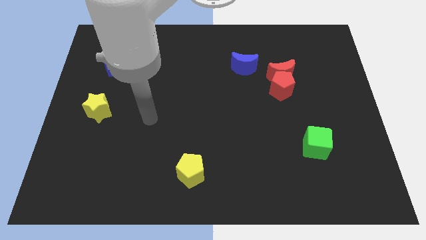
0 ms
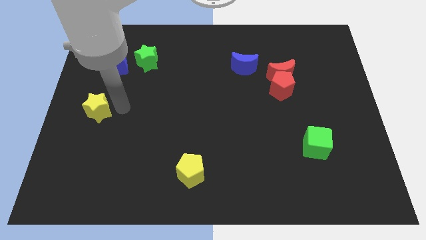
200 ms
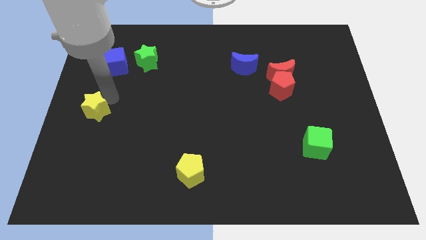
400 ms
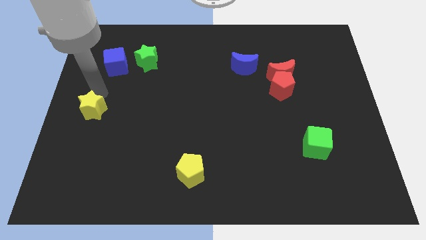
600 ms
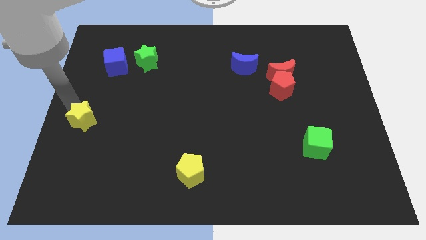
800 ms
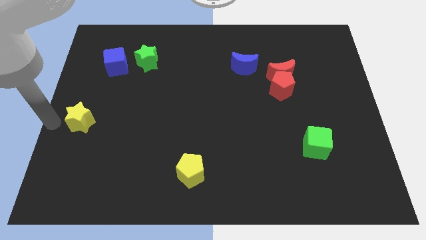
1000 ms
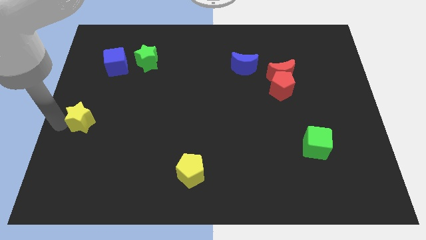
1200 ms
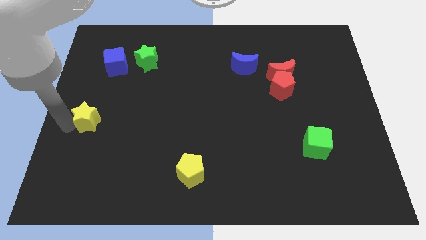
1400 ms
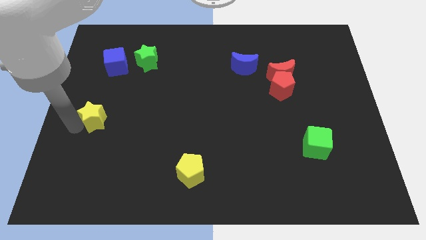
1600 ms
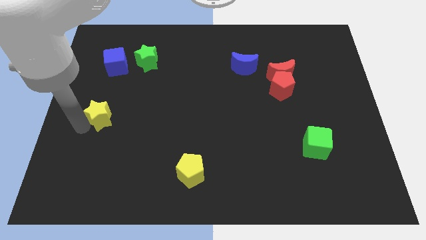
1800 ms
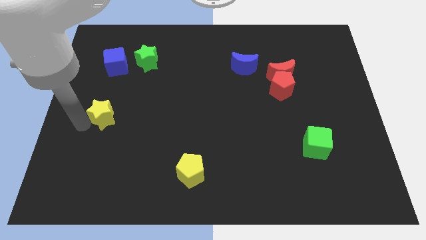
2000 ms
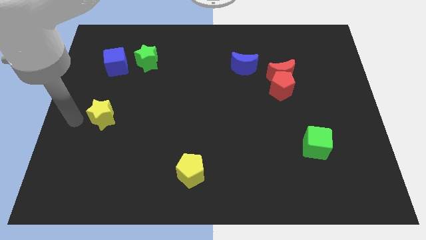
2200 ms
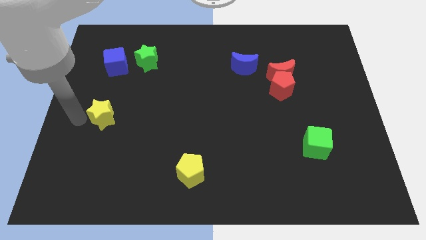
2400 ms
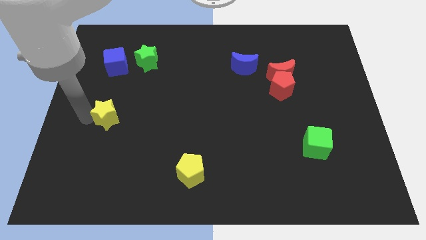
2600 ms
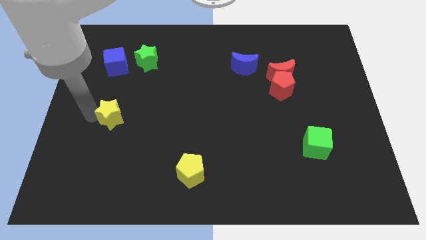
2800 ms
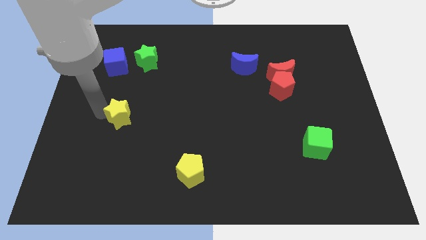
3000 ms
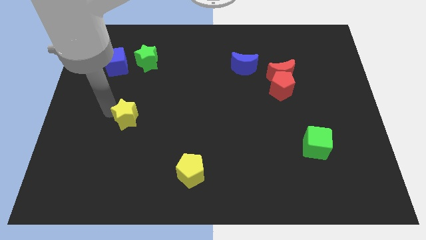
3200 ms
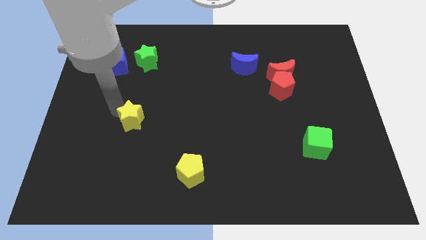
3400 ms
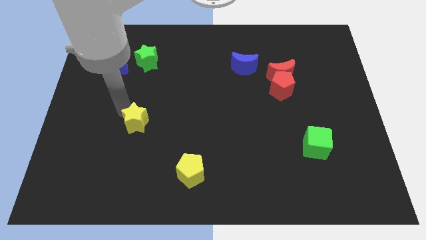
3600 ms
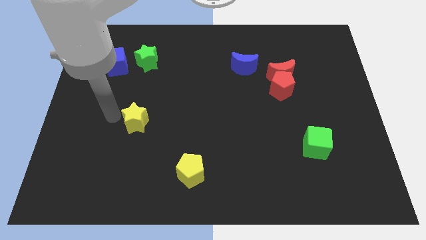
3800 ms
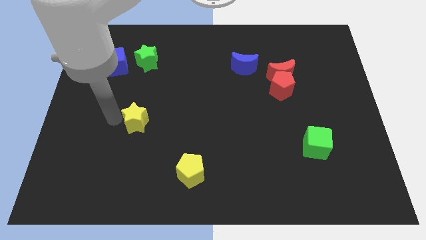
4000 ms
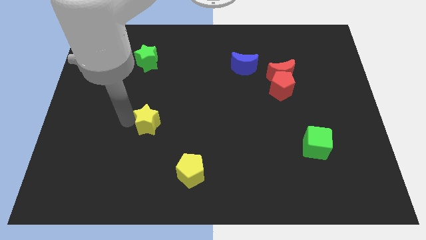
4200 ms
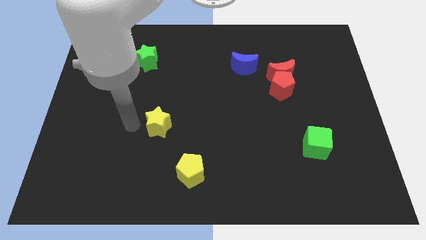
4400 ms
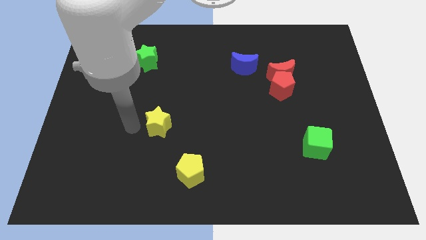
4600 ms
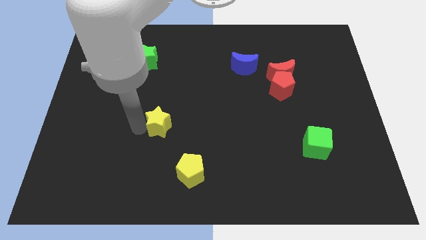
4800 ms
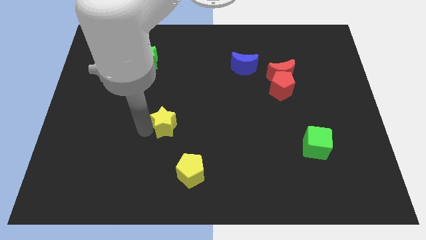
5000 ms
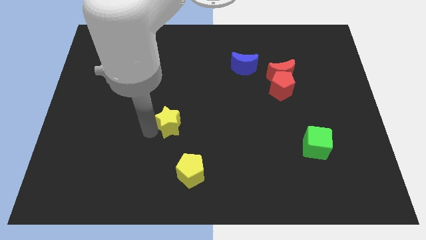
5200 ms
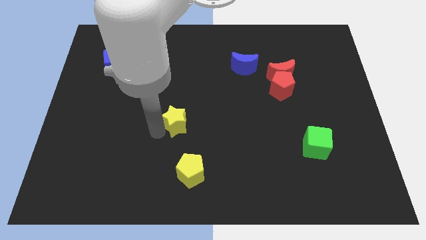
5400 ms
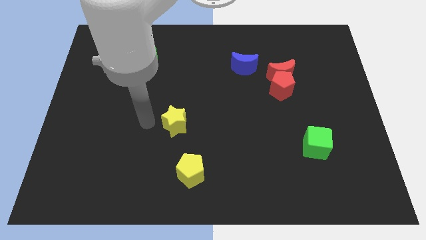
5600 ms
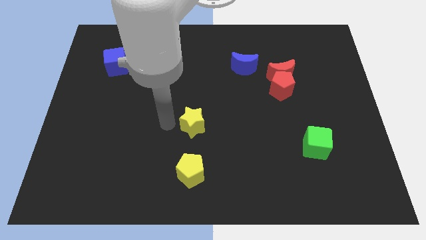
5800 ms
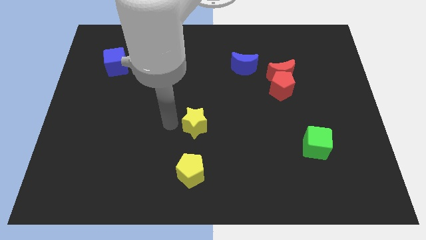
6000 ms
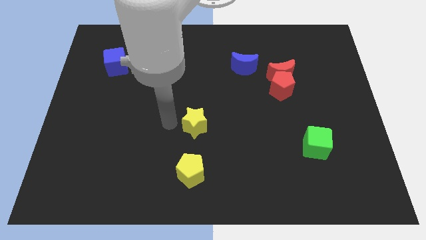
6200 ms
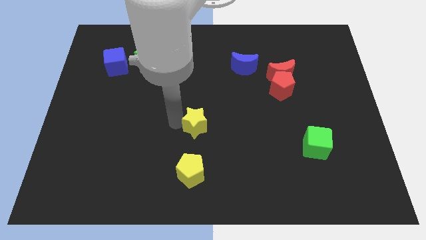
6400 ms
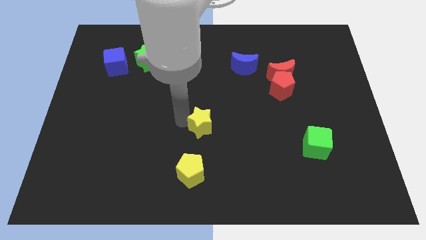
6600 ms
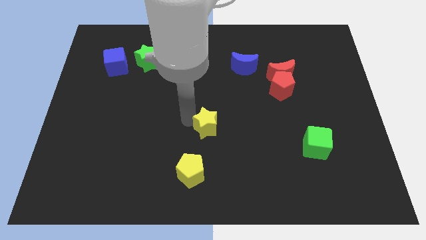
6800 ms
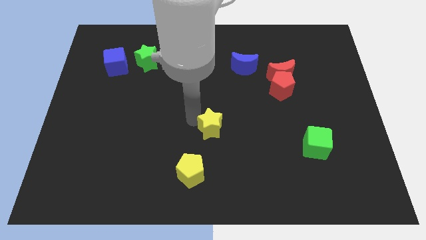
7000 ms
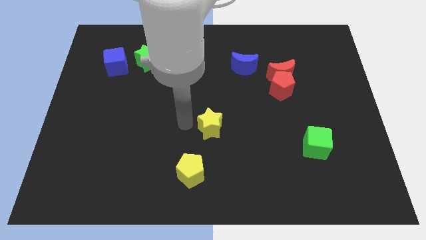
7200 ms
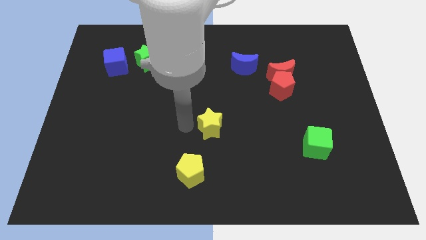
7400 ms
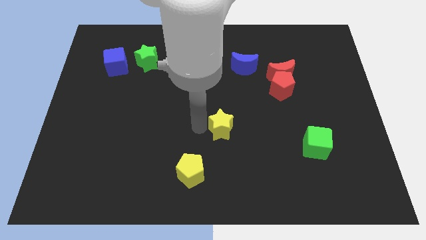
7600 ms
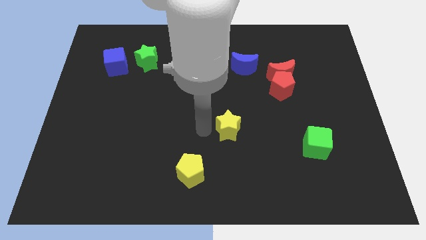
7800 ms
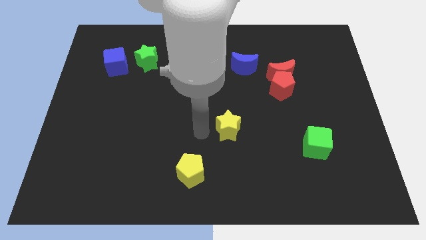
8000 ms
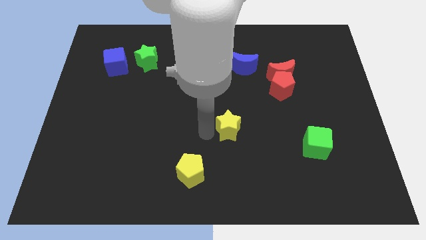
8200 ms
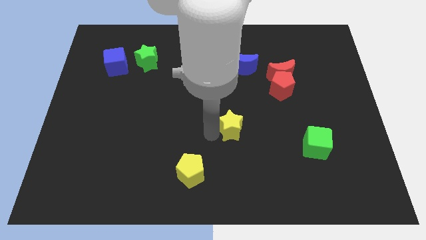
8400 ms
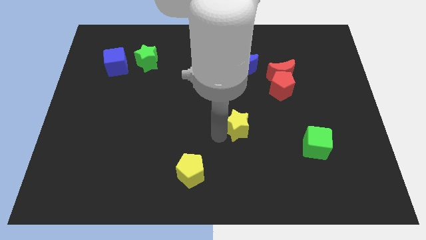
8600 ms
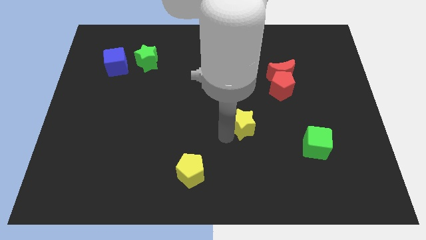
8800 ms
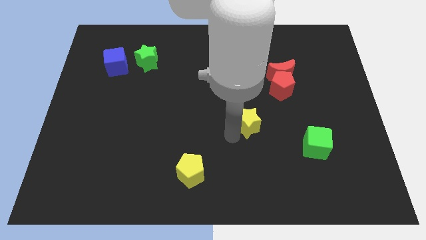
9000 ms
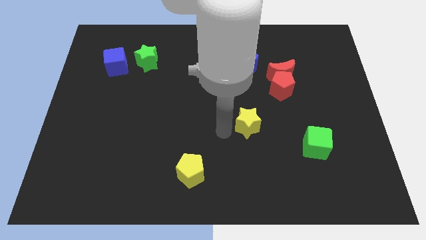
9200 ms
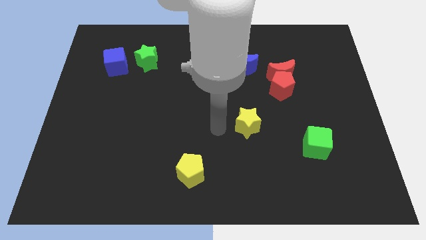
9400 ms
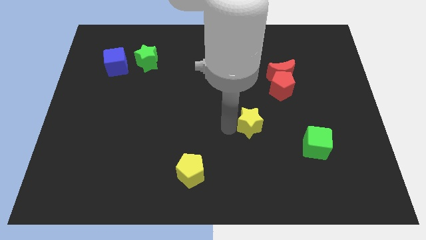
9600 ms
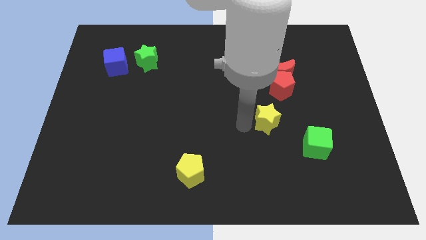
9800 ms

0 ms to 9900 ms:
slide the yellow star to the top left side of the green cube

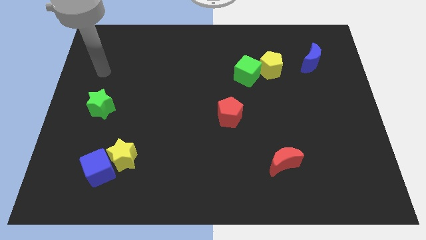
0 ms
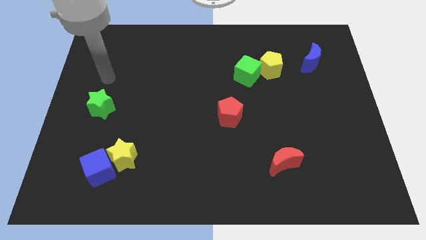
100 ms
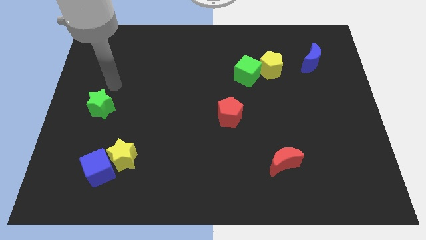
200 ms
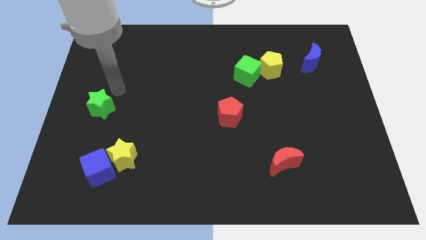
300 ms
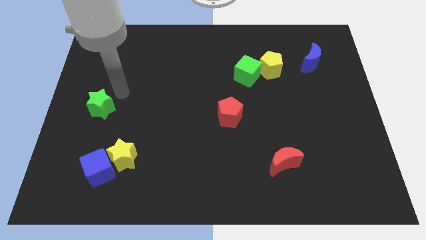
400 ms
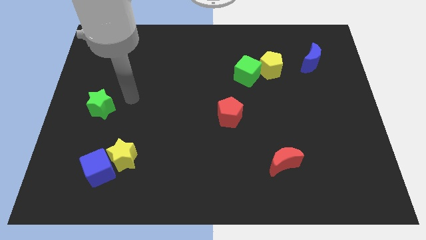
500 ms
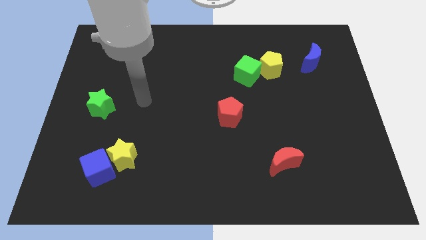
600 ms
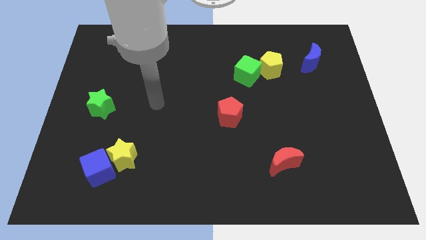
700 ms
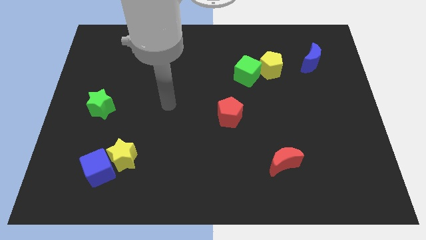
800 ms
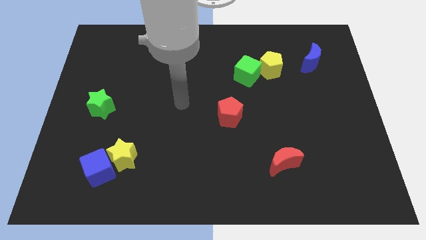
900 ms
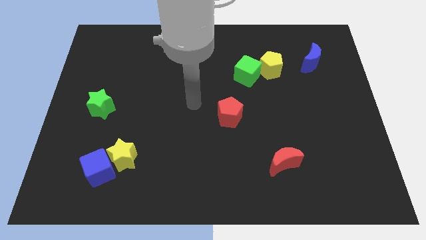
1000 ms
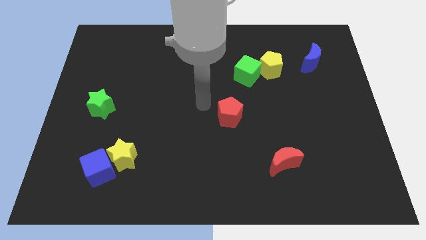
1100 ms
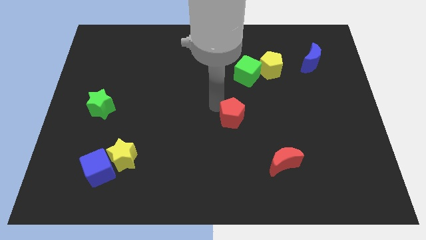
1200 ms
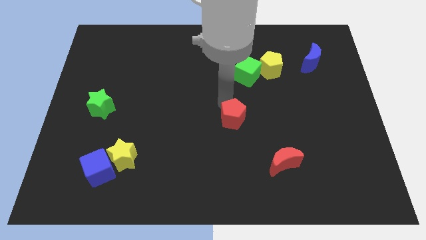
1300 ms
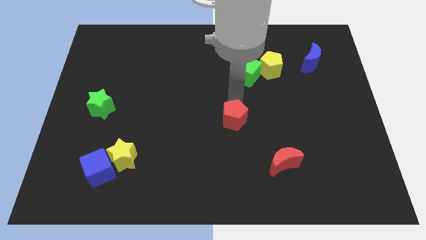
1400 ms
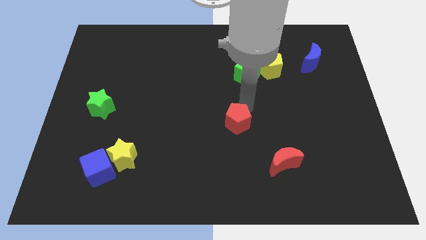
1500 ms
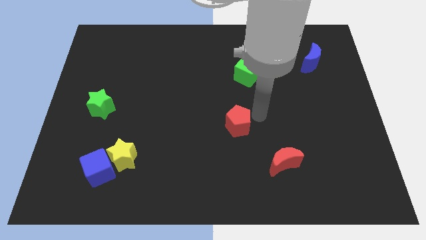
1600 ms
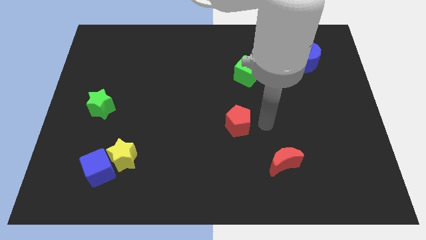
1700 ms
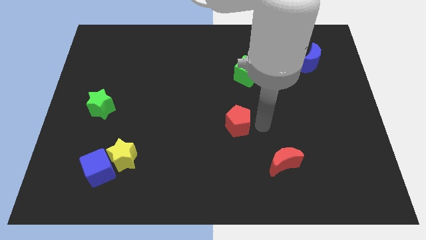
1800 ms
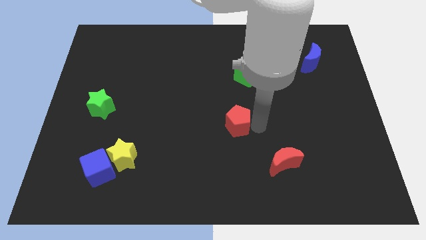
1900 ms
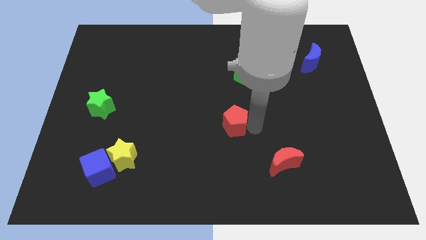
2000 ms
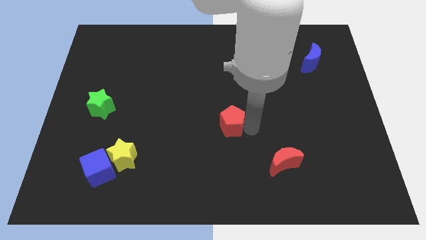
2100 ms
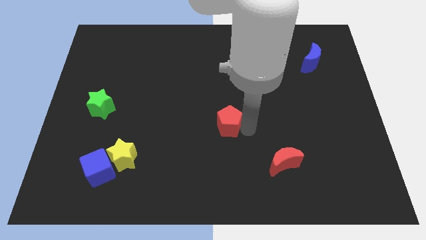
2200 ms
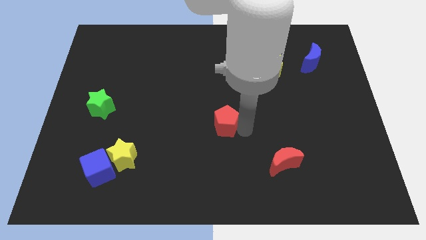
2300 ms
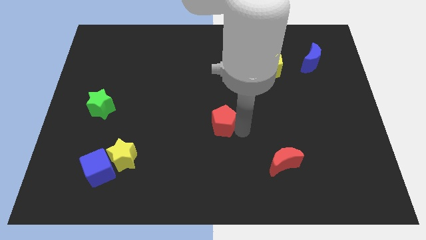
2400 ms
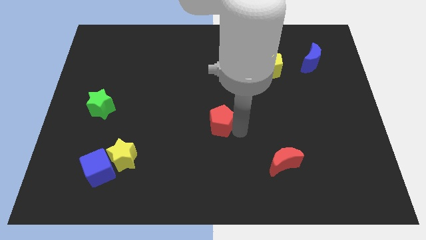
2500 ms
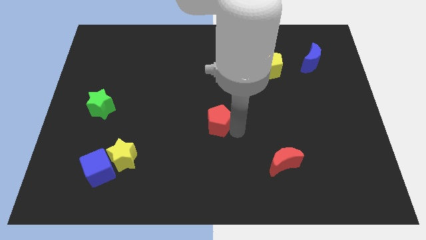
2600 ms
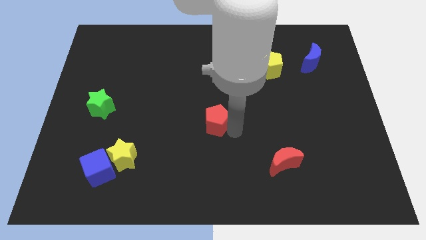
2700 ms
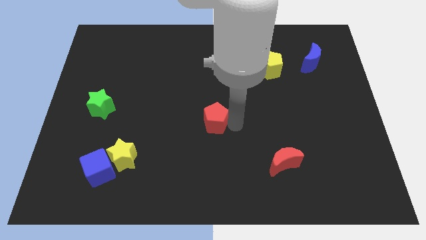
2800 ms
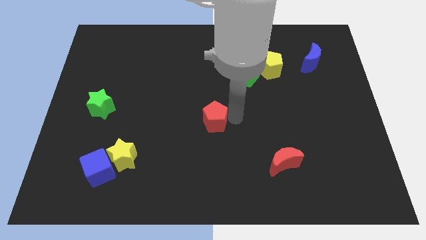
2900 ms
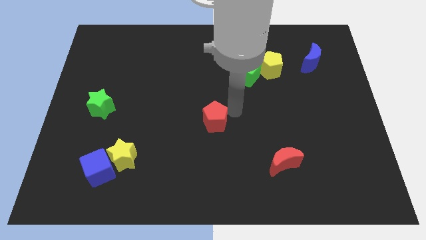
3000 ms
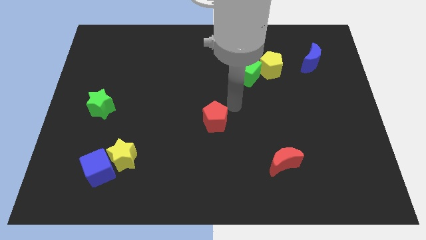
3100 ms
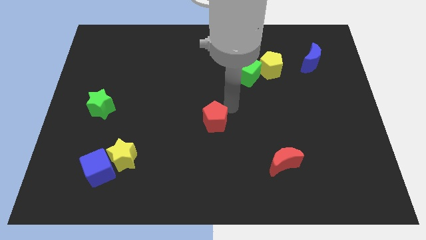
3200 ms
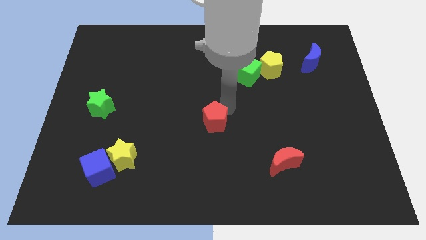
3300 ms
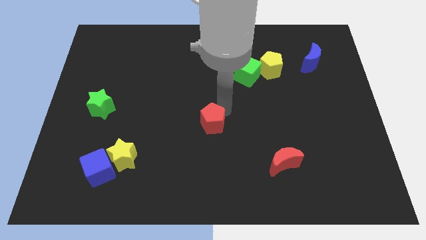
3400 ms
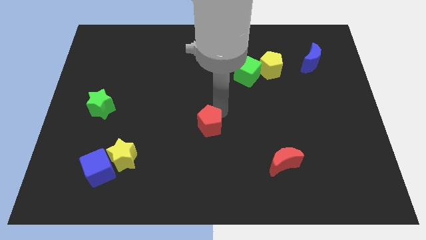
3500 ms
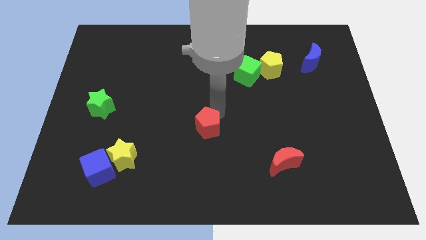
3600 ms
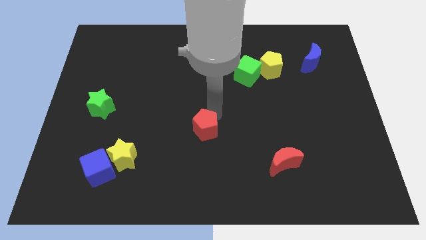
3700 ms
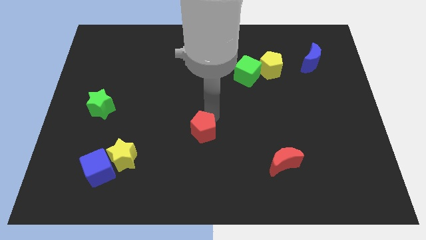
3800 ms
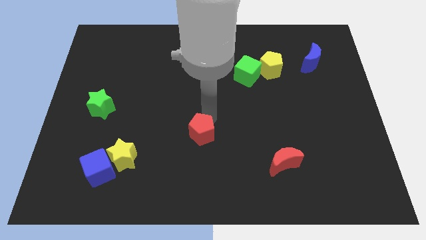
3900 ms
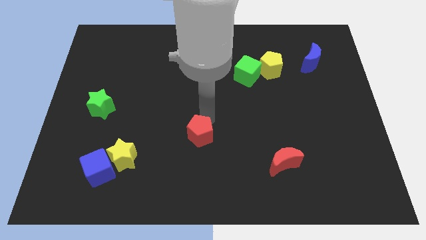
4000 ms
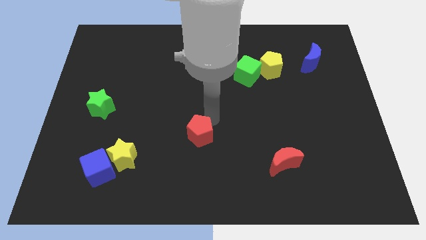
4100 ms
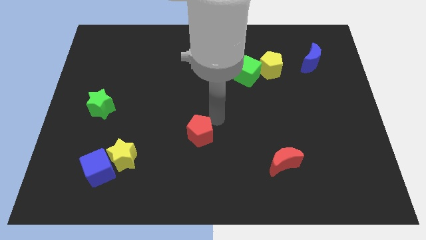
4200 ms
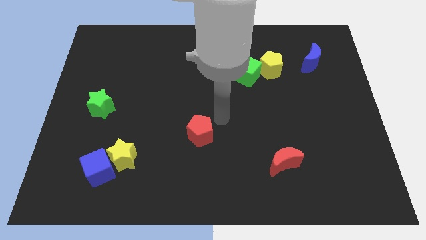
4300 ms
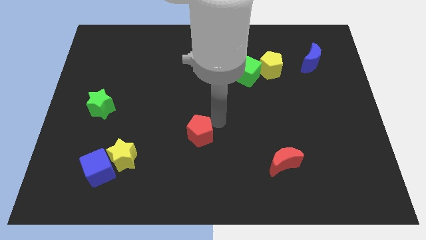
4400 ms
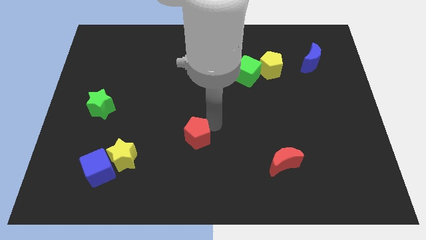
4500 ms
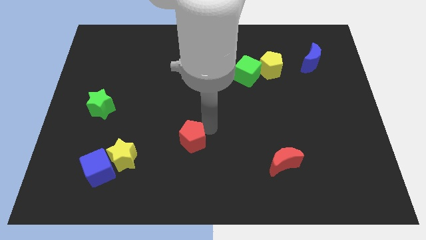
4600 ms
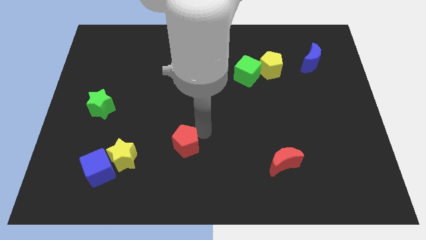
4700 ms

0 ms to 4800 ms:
move the red pentagon just right of the yellow star
